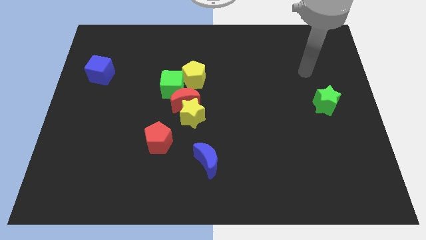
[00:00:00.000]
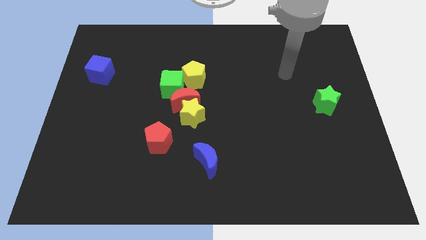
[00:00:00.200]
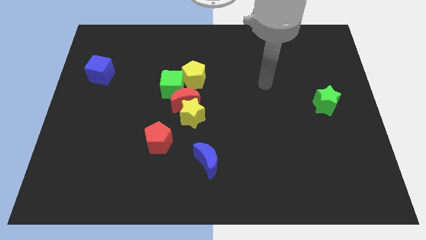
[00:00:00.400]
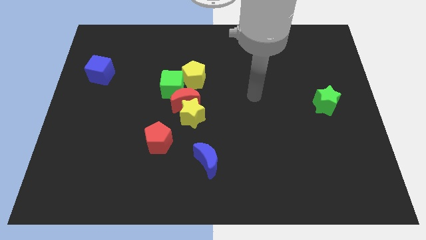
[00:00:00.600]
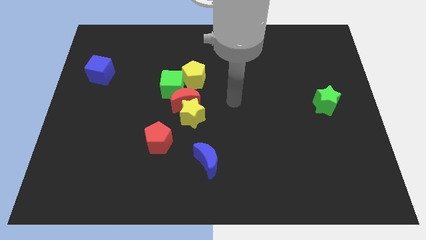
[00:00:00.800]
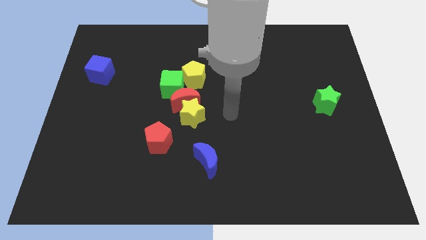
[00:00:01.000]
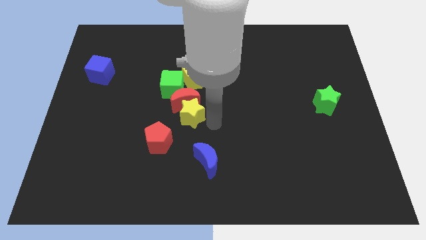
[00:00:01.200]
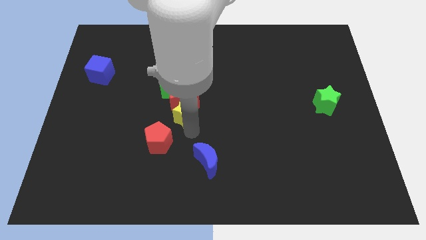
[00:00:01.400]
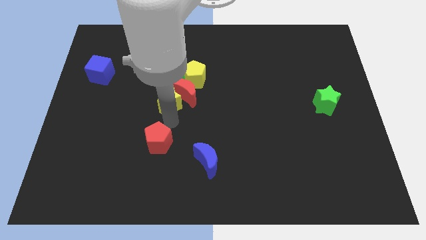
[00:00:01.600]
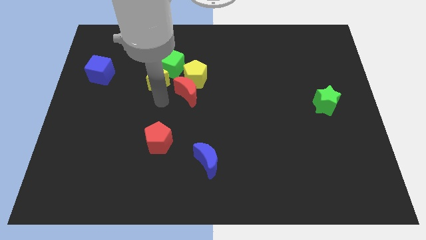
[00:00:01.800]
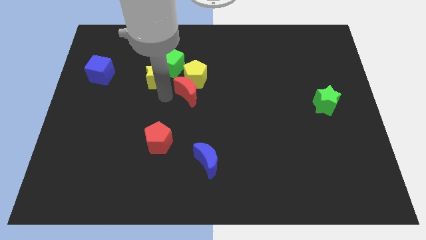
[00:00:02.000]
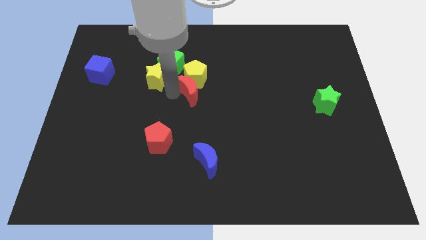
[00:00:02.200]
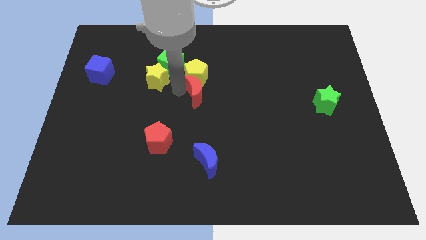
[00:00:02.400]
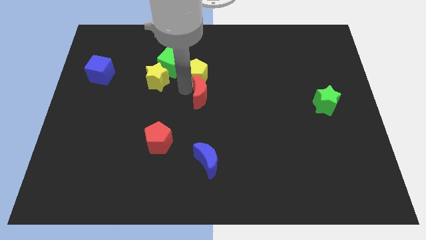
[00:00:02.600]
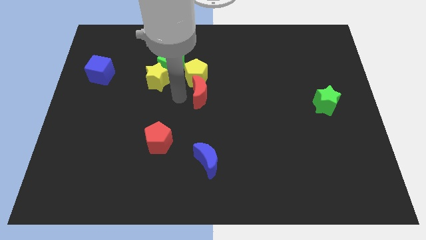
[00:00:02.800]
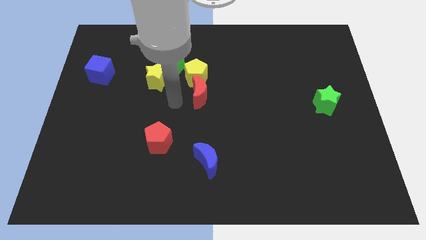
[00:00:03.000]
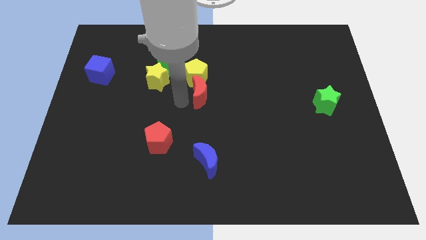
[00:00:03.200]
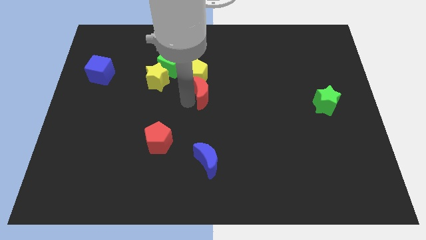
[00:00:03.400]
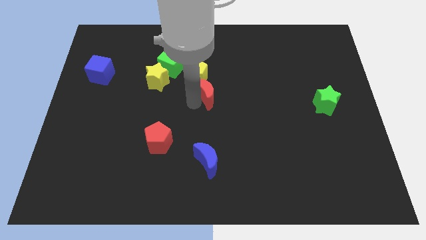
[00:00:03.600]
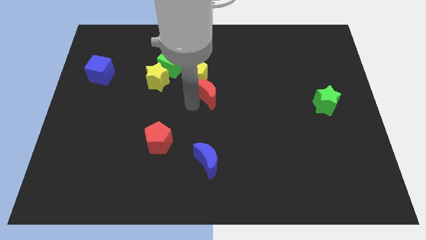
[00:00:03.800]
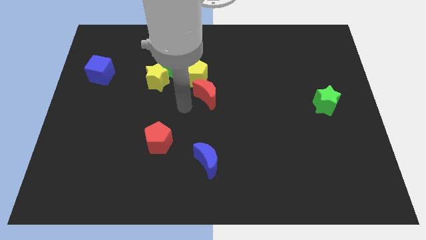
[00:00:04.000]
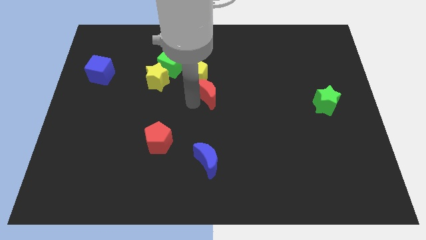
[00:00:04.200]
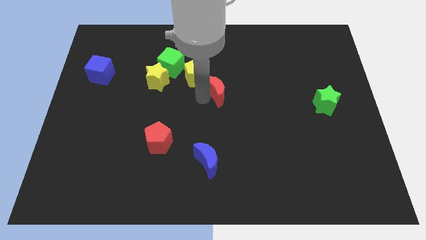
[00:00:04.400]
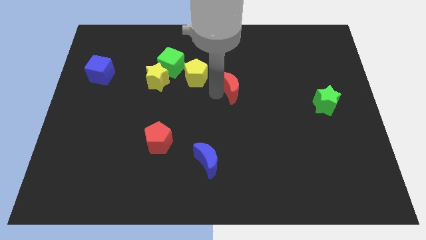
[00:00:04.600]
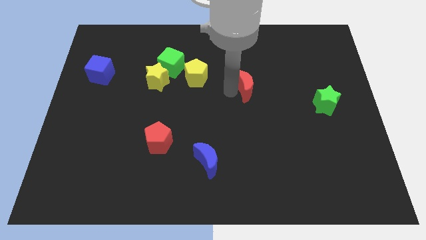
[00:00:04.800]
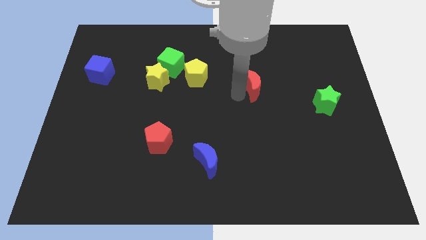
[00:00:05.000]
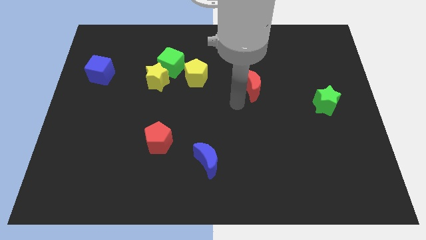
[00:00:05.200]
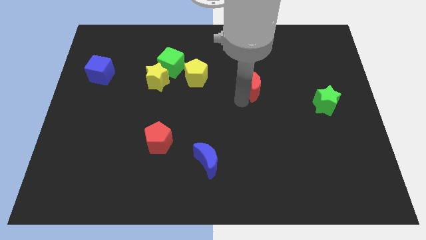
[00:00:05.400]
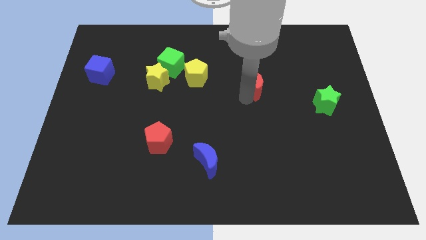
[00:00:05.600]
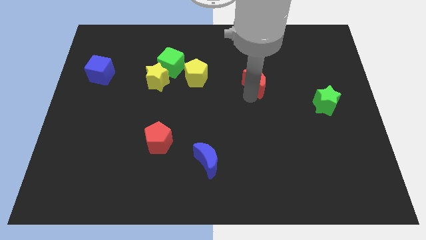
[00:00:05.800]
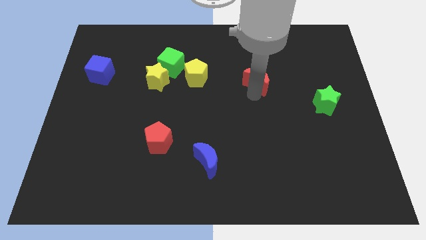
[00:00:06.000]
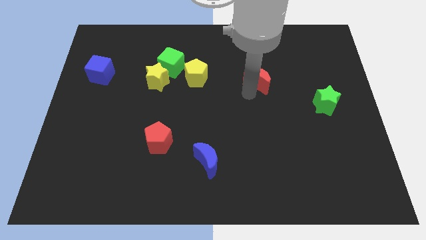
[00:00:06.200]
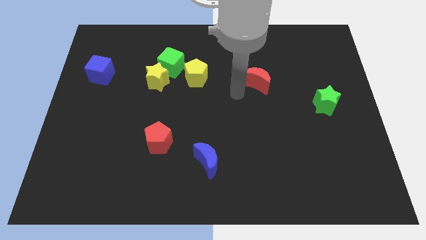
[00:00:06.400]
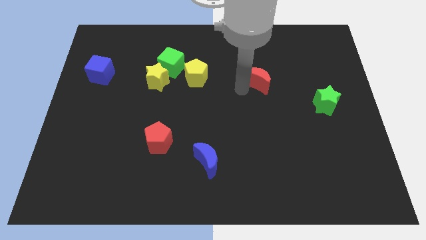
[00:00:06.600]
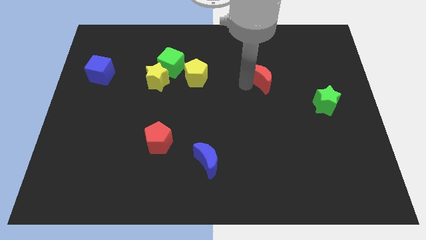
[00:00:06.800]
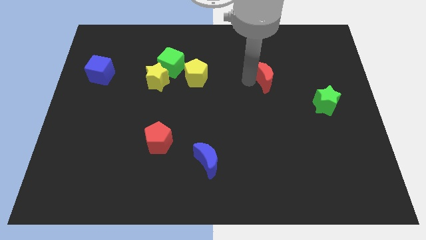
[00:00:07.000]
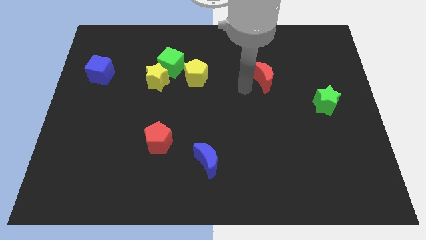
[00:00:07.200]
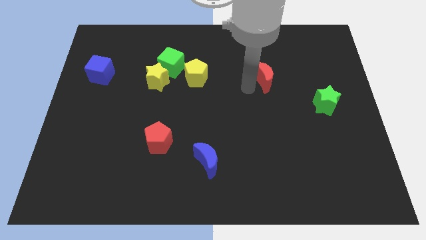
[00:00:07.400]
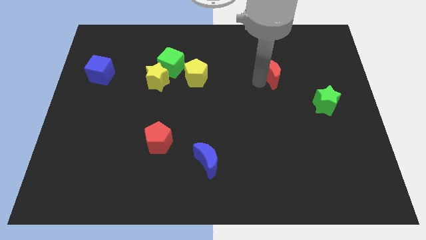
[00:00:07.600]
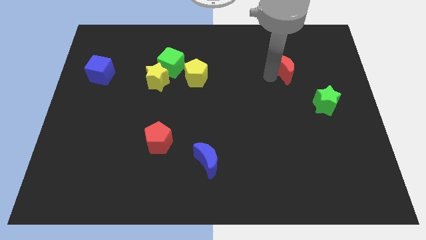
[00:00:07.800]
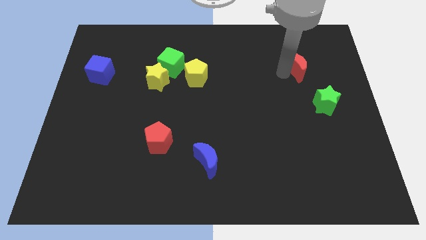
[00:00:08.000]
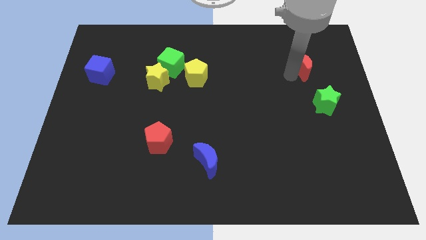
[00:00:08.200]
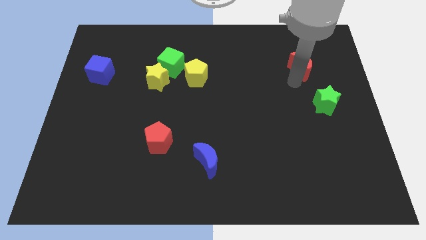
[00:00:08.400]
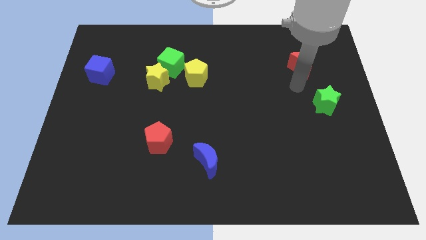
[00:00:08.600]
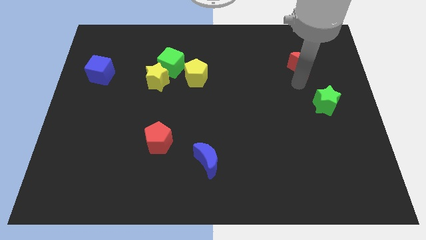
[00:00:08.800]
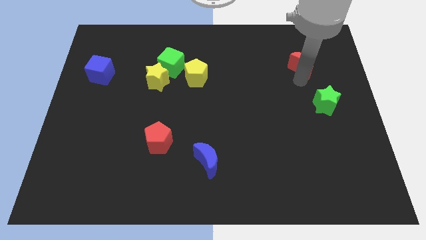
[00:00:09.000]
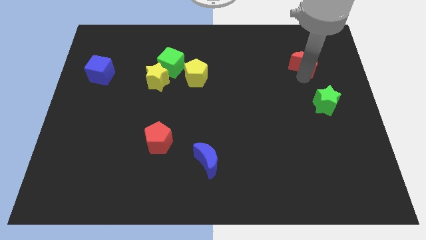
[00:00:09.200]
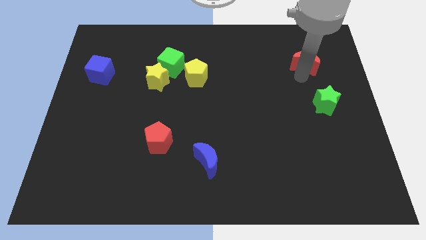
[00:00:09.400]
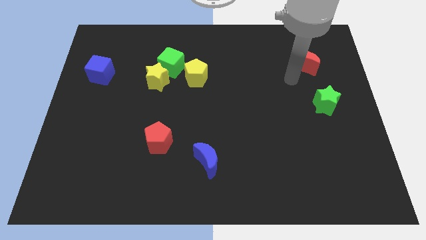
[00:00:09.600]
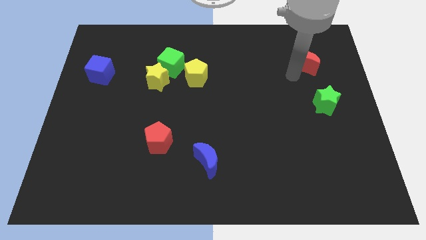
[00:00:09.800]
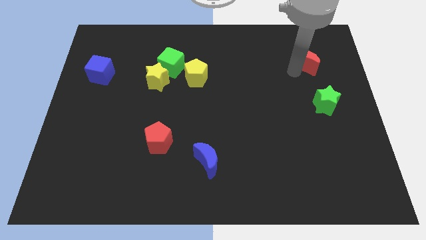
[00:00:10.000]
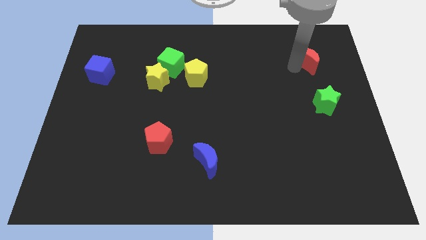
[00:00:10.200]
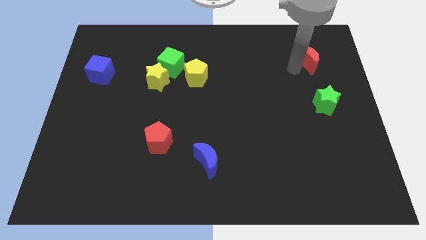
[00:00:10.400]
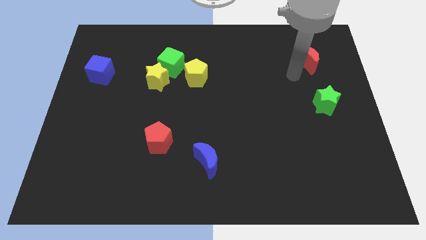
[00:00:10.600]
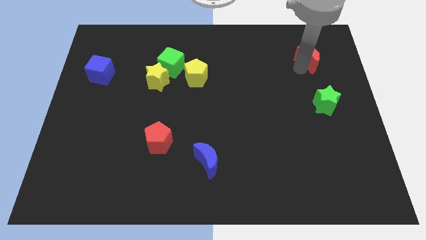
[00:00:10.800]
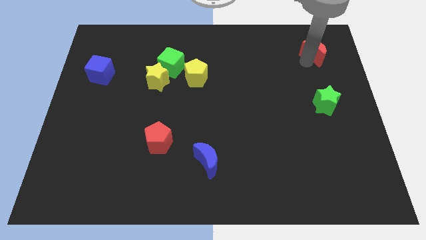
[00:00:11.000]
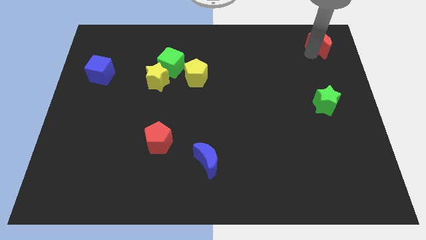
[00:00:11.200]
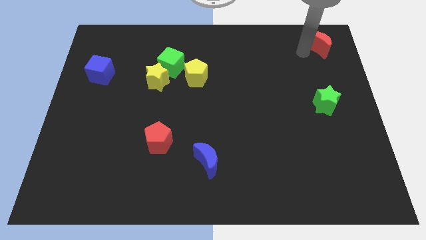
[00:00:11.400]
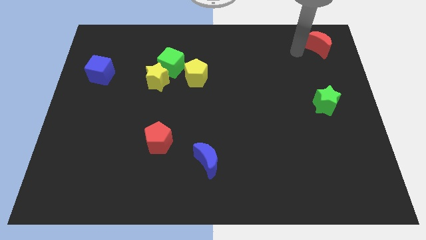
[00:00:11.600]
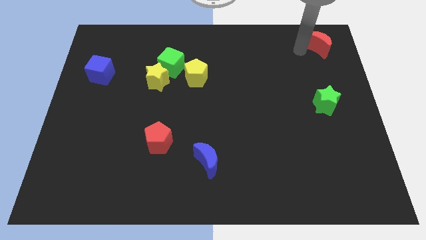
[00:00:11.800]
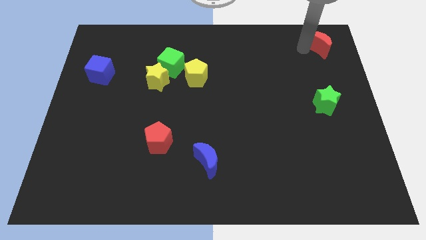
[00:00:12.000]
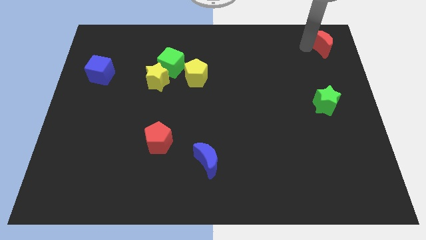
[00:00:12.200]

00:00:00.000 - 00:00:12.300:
move the red moon to the top right
